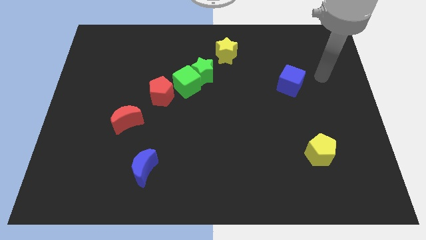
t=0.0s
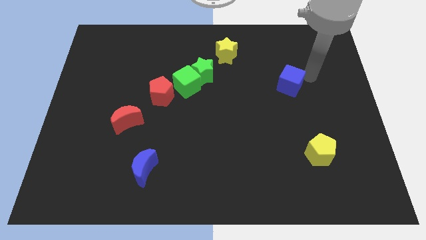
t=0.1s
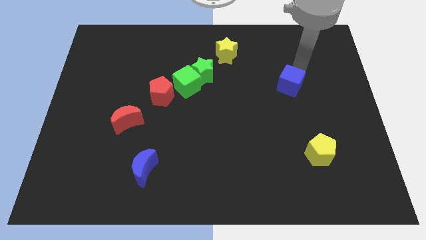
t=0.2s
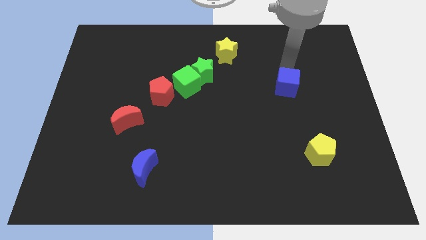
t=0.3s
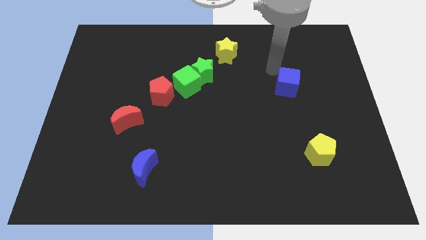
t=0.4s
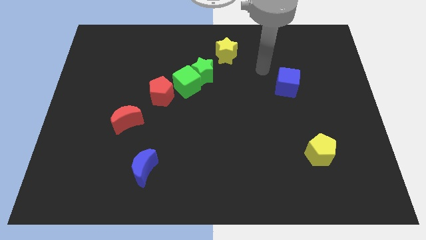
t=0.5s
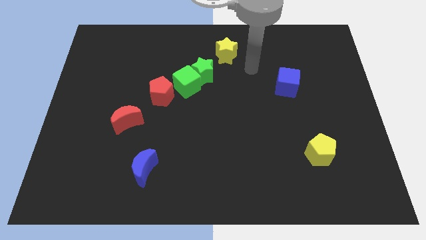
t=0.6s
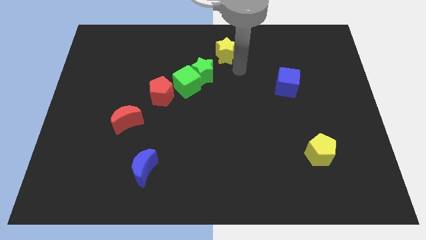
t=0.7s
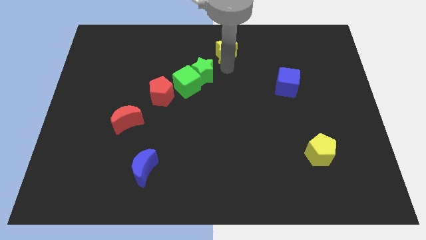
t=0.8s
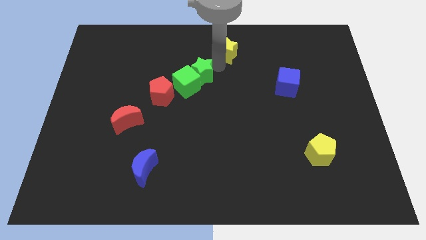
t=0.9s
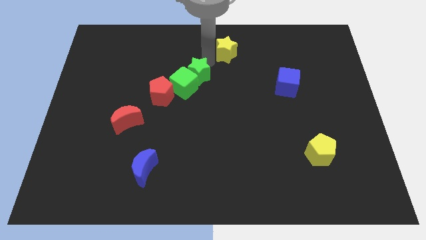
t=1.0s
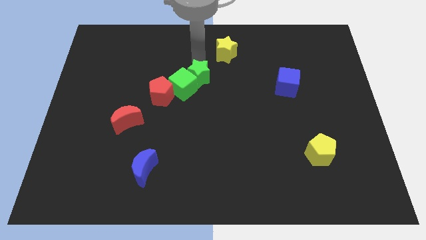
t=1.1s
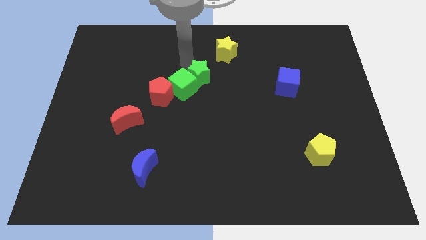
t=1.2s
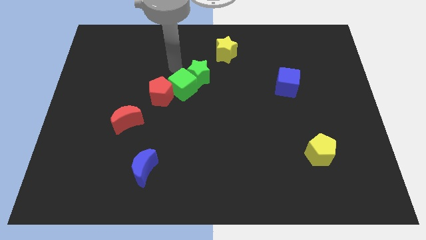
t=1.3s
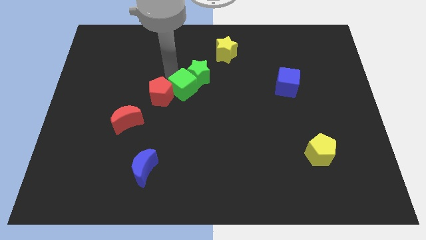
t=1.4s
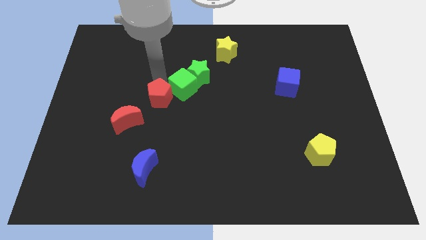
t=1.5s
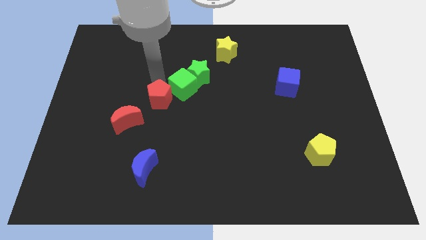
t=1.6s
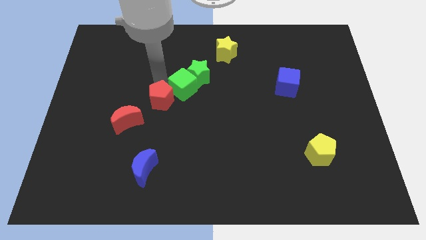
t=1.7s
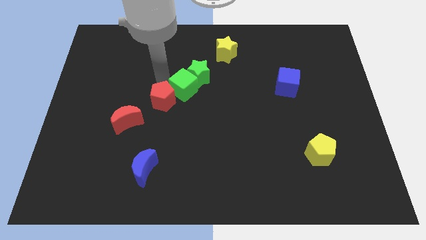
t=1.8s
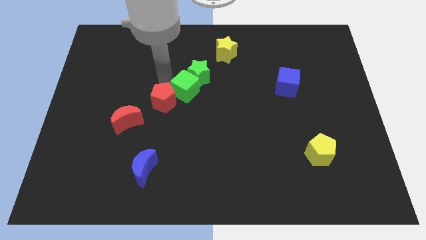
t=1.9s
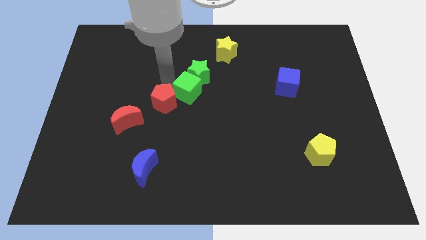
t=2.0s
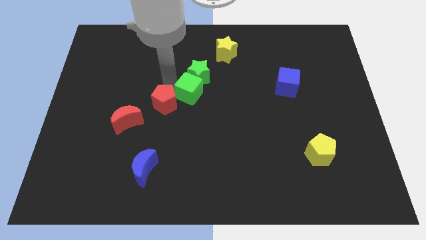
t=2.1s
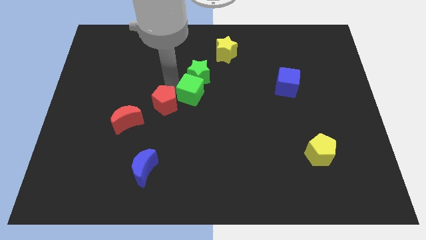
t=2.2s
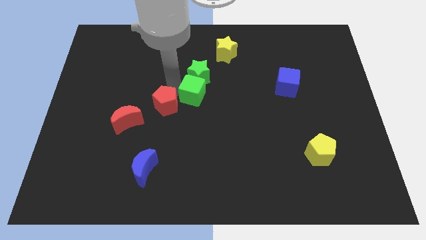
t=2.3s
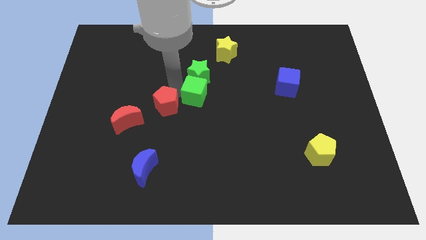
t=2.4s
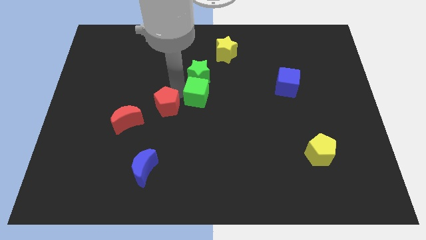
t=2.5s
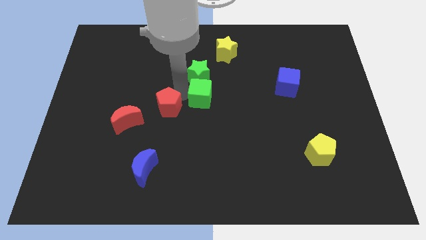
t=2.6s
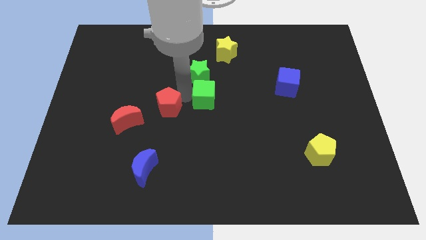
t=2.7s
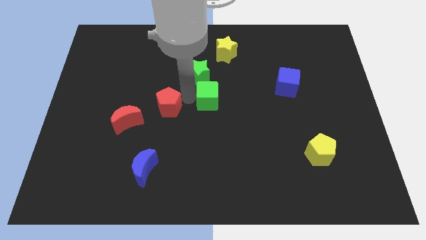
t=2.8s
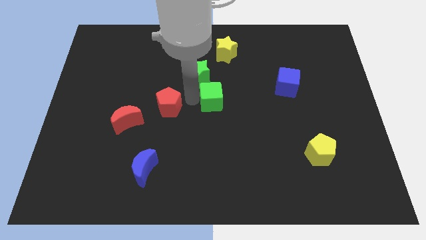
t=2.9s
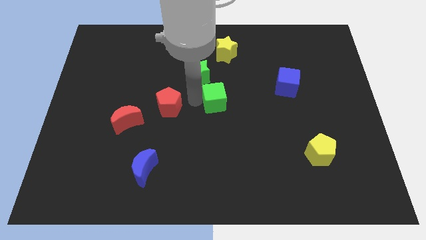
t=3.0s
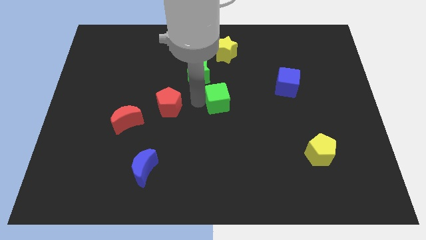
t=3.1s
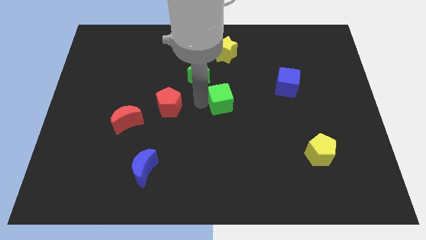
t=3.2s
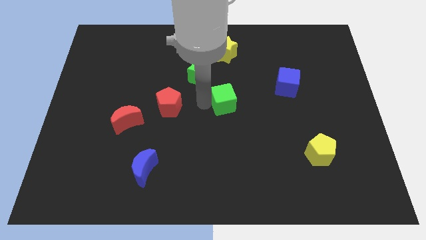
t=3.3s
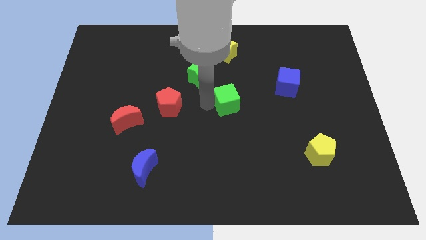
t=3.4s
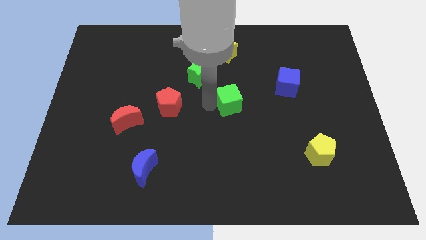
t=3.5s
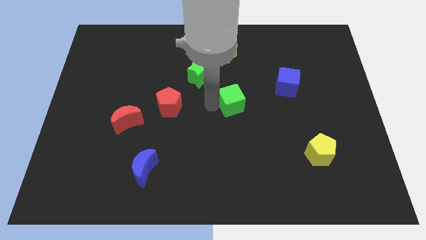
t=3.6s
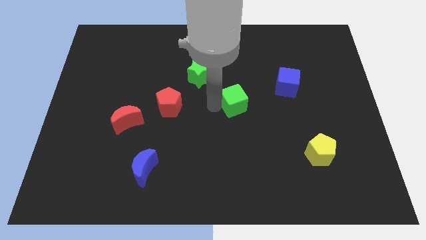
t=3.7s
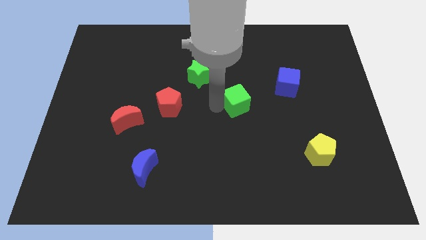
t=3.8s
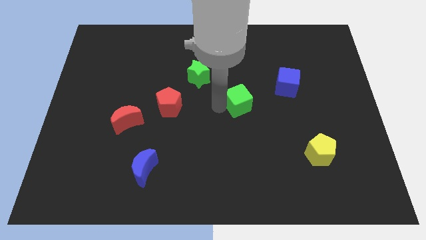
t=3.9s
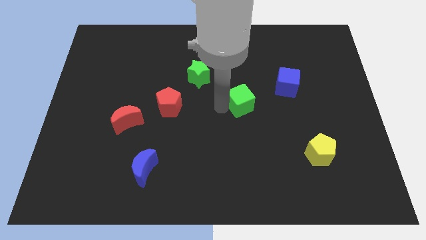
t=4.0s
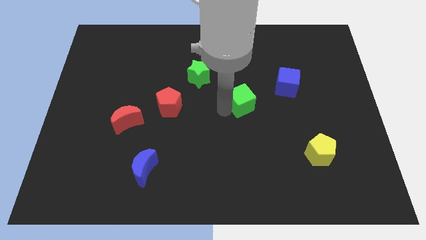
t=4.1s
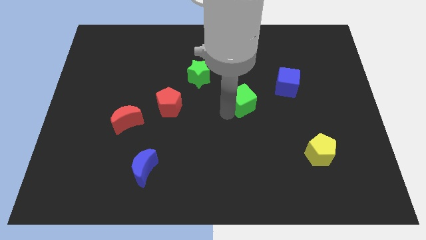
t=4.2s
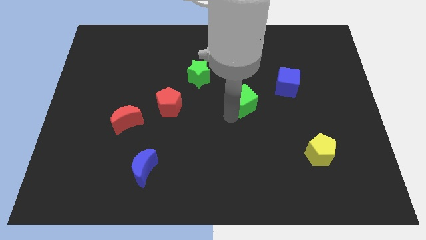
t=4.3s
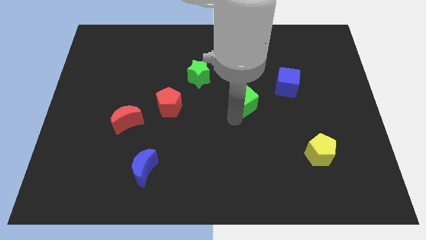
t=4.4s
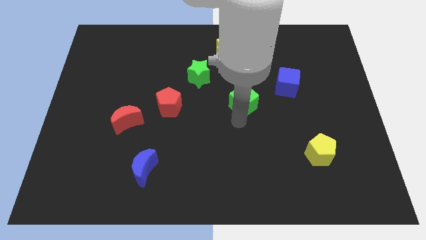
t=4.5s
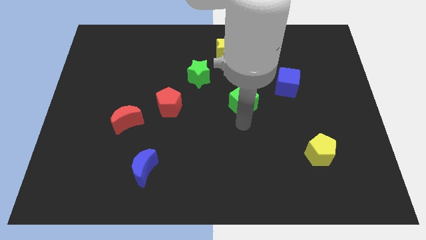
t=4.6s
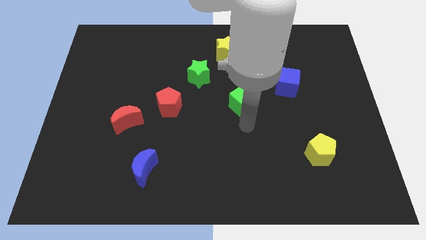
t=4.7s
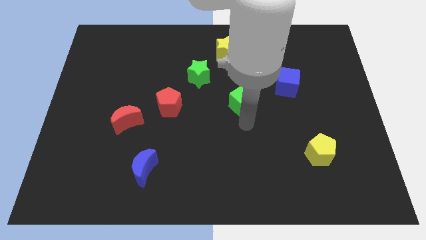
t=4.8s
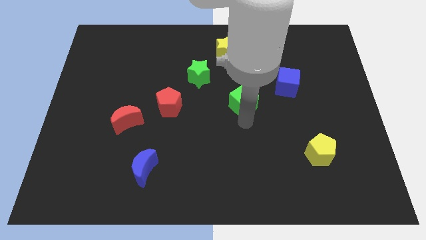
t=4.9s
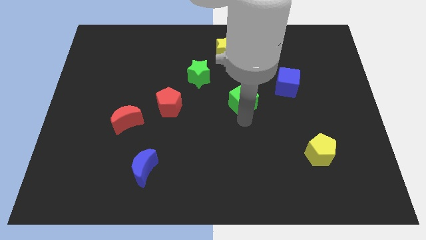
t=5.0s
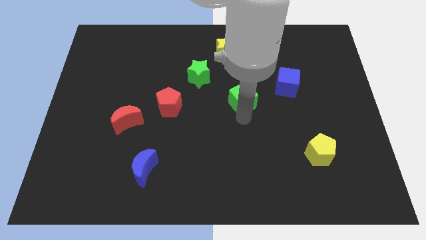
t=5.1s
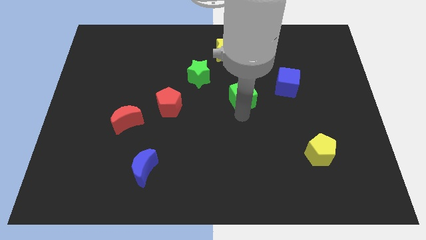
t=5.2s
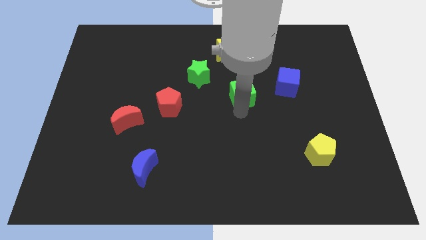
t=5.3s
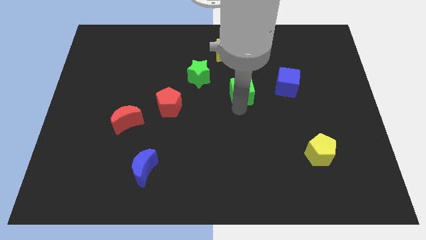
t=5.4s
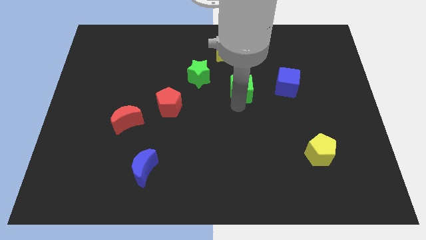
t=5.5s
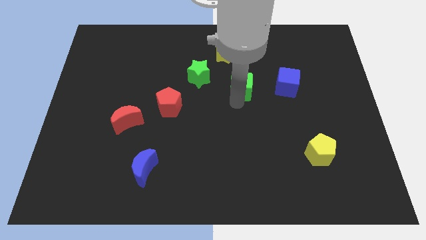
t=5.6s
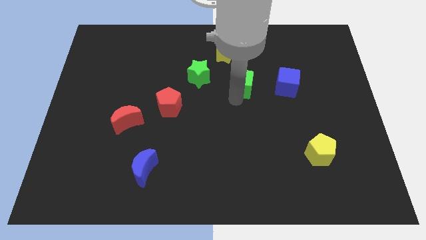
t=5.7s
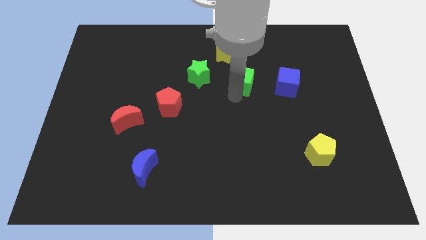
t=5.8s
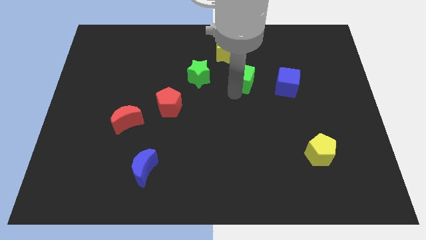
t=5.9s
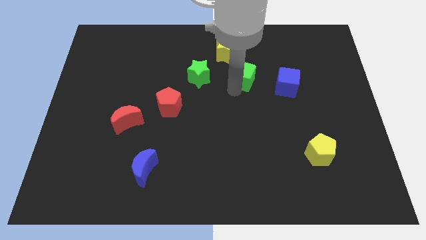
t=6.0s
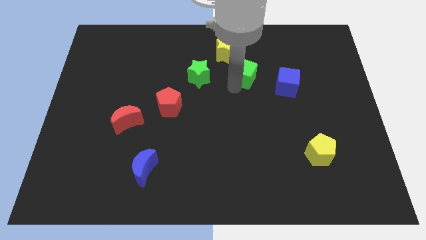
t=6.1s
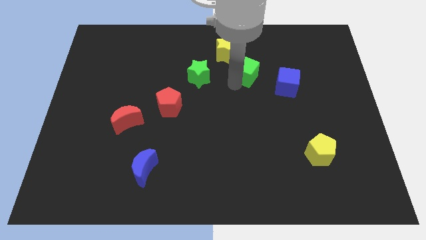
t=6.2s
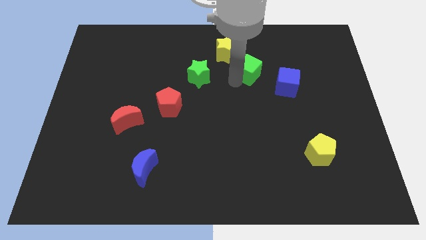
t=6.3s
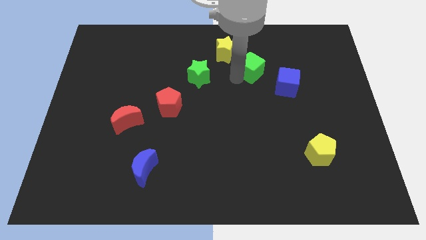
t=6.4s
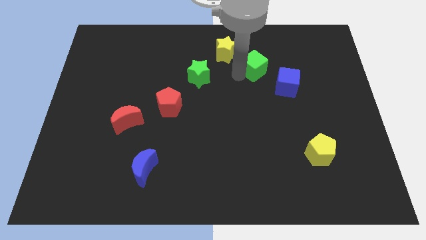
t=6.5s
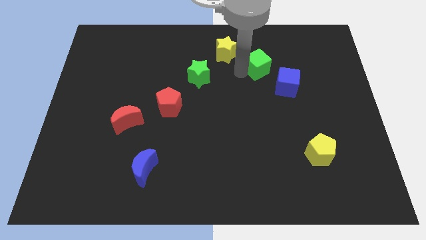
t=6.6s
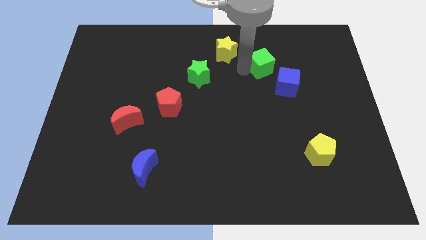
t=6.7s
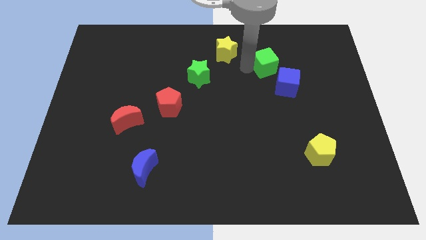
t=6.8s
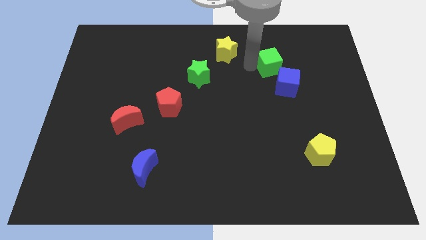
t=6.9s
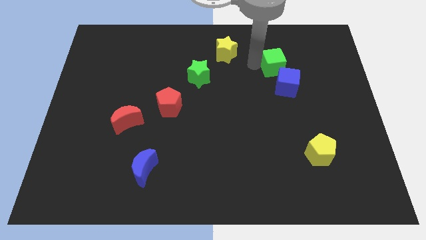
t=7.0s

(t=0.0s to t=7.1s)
slide the green cube right

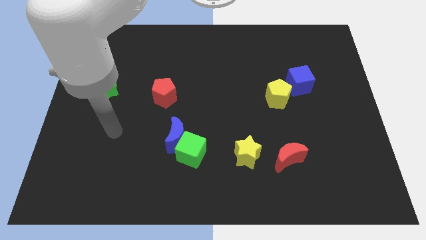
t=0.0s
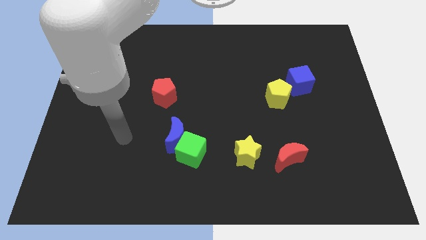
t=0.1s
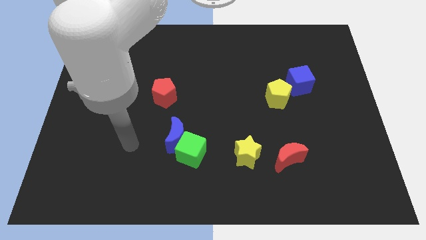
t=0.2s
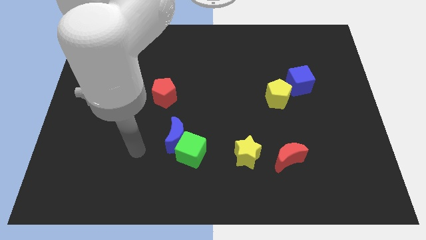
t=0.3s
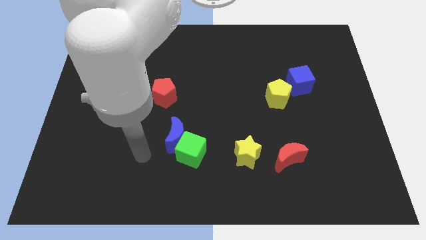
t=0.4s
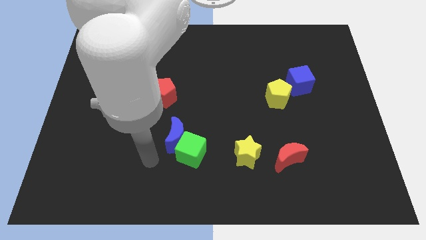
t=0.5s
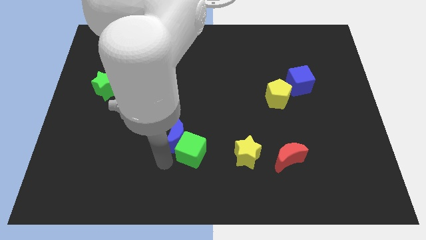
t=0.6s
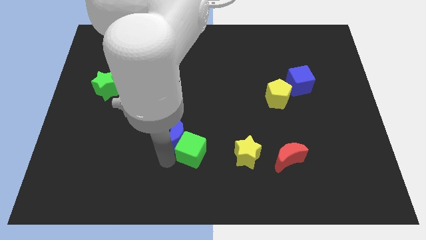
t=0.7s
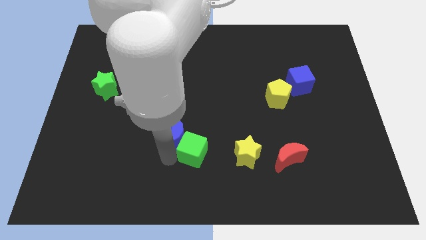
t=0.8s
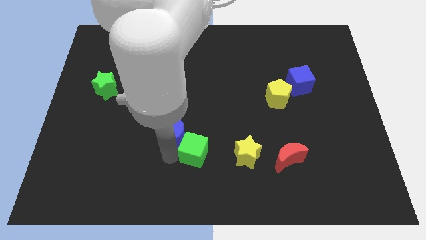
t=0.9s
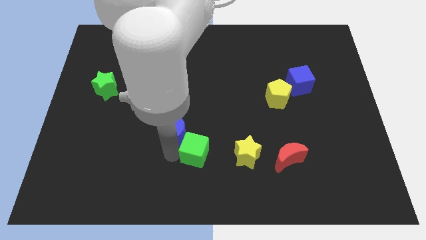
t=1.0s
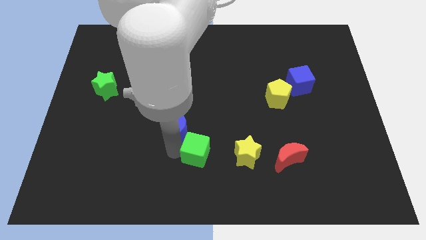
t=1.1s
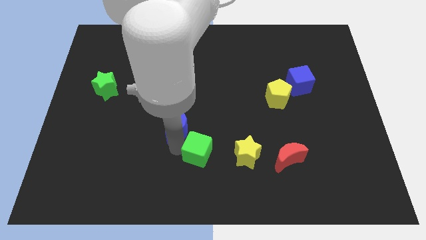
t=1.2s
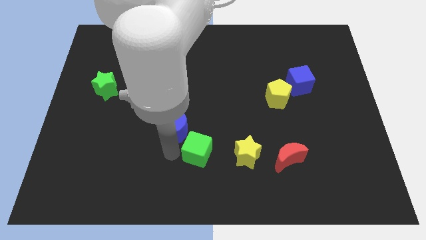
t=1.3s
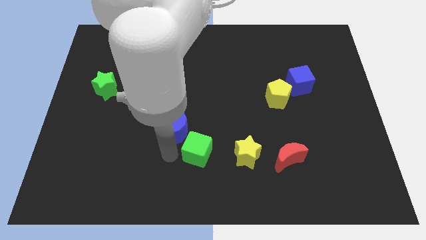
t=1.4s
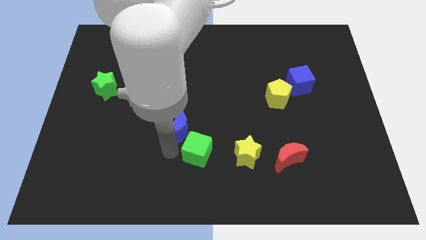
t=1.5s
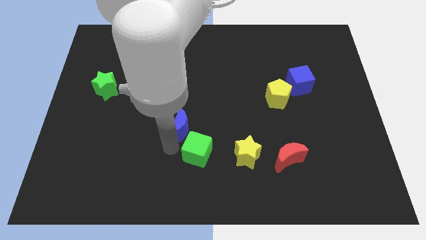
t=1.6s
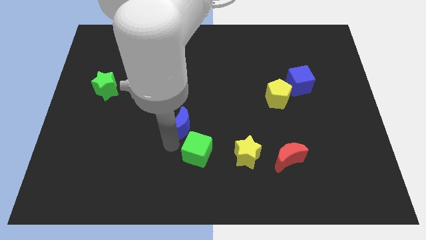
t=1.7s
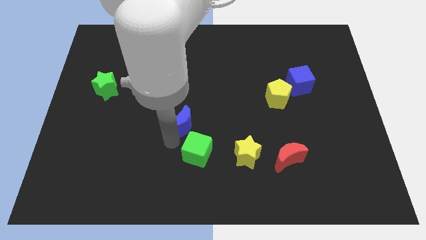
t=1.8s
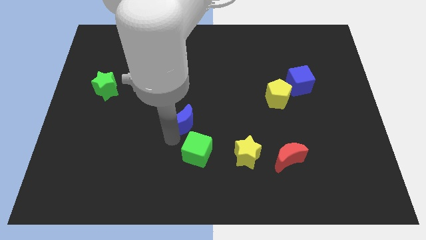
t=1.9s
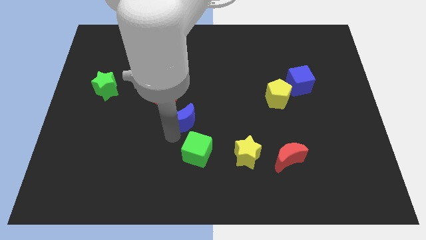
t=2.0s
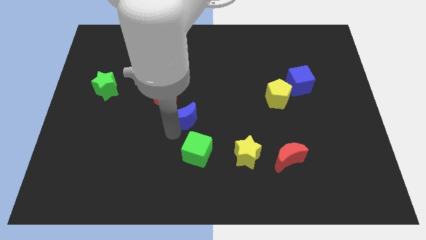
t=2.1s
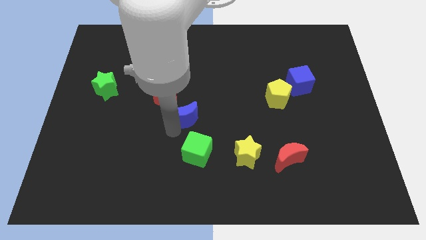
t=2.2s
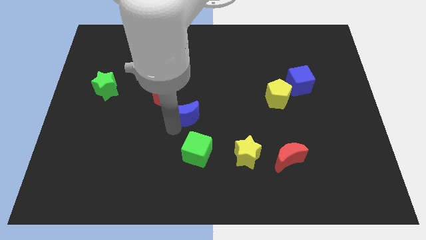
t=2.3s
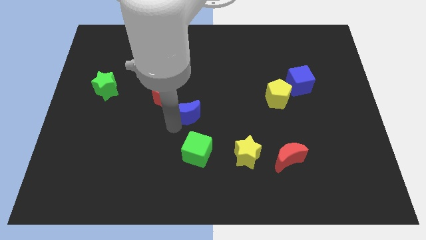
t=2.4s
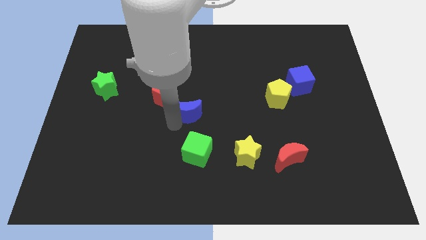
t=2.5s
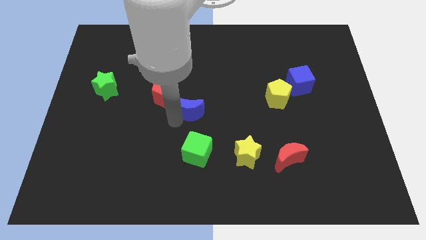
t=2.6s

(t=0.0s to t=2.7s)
push the blue moon a little bit up
